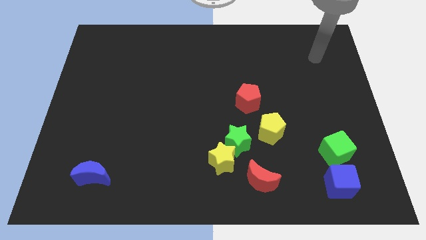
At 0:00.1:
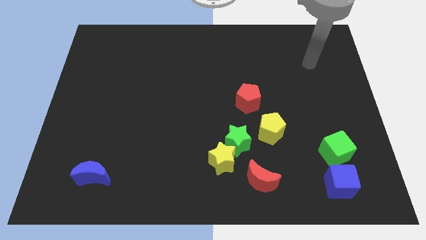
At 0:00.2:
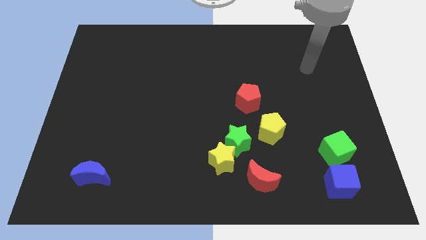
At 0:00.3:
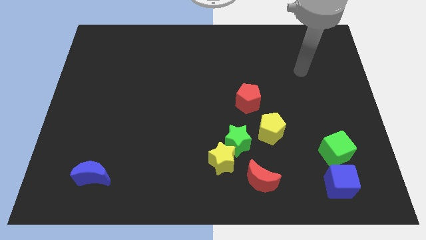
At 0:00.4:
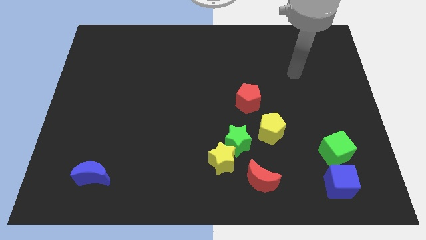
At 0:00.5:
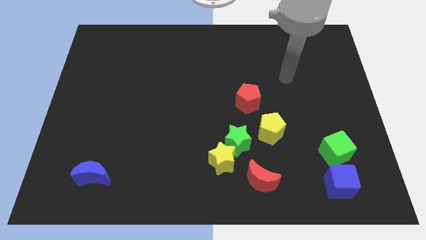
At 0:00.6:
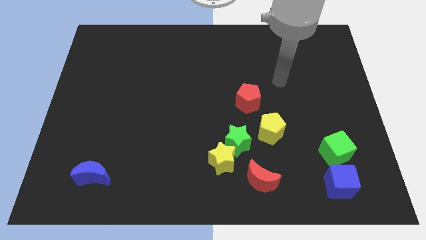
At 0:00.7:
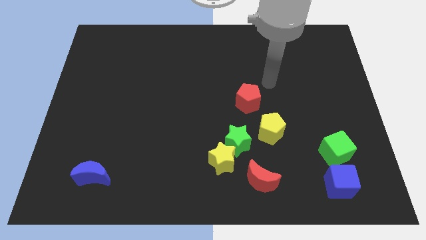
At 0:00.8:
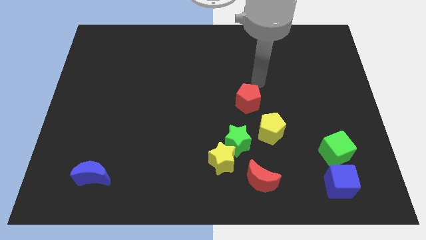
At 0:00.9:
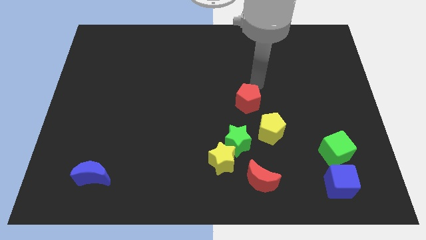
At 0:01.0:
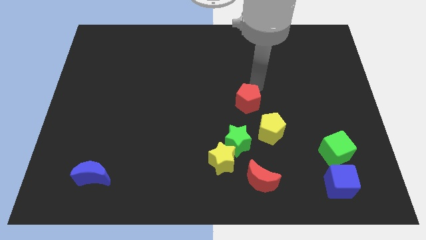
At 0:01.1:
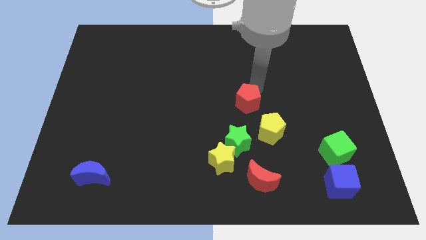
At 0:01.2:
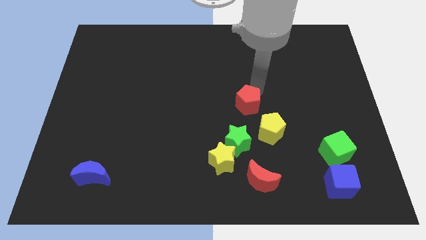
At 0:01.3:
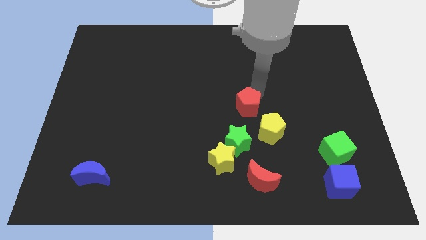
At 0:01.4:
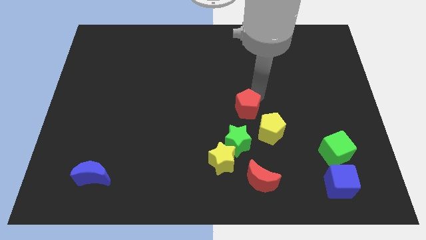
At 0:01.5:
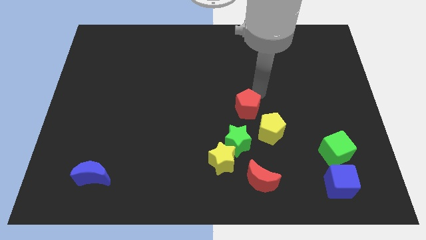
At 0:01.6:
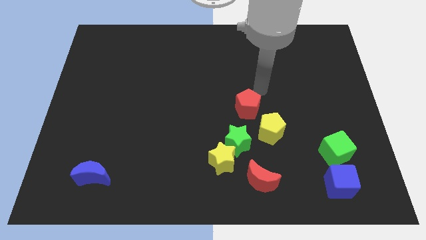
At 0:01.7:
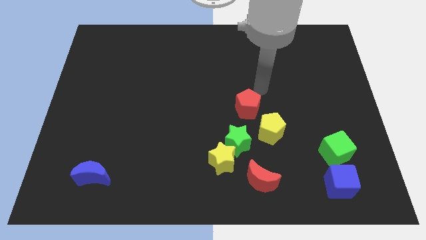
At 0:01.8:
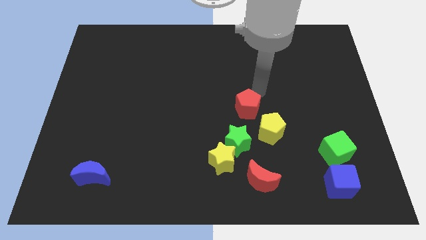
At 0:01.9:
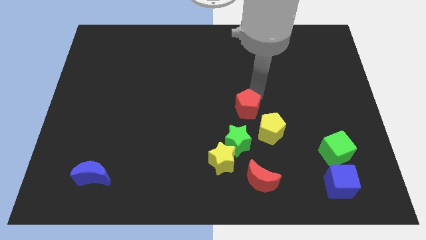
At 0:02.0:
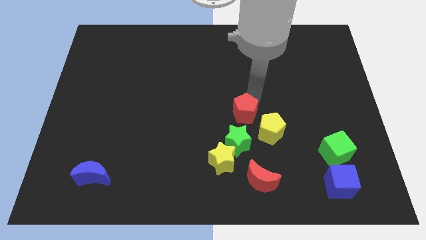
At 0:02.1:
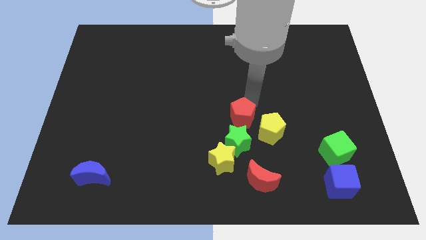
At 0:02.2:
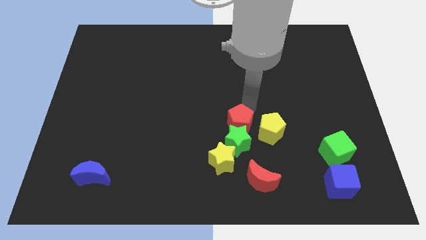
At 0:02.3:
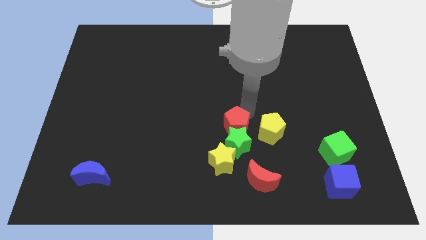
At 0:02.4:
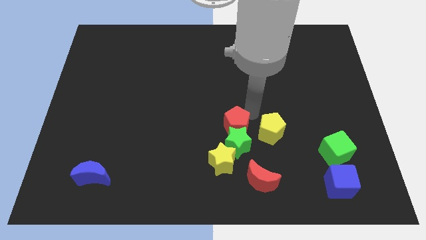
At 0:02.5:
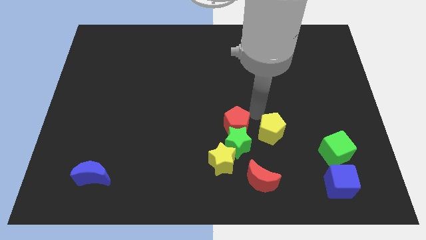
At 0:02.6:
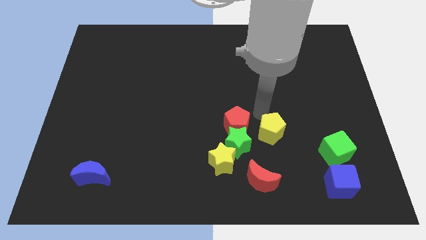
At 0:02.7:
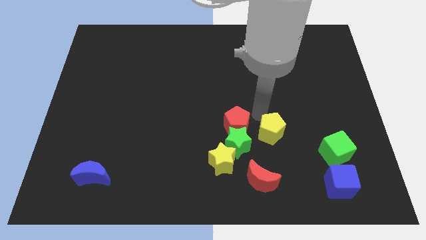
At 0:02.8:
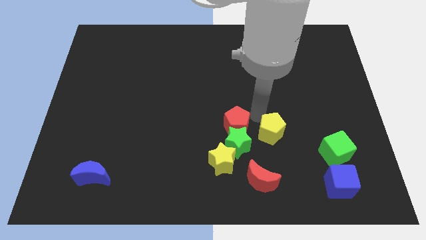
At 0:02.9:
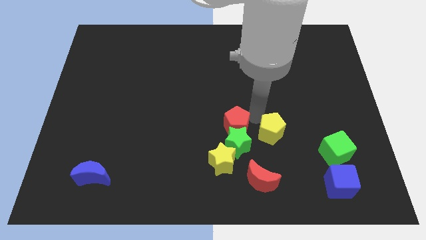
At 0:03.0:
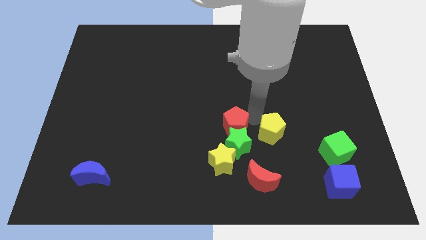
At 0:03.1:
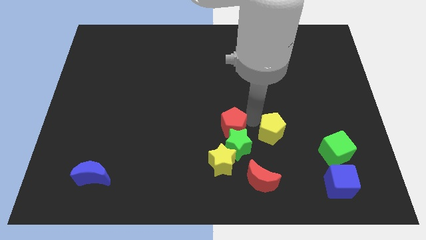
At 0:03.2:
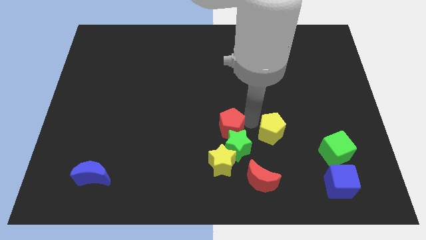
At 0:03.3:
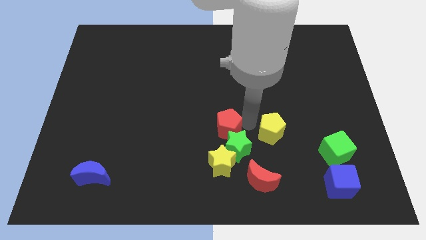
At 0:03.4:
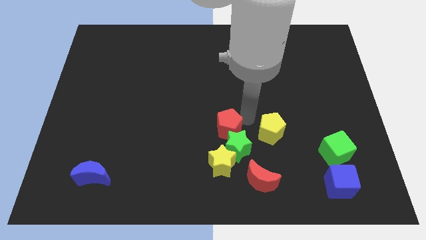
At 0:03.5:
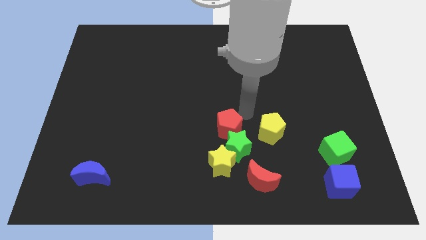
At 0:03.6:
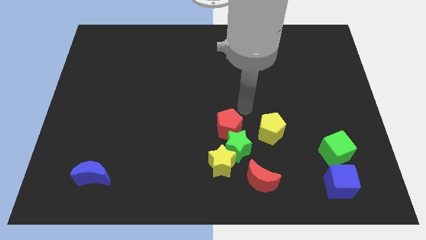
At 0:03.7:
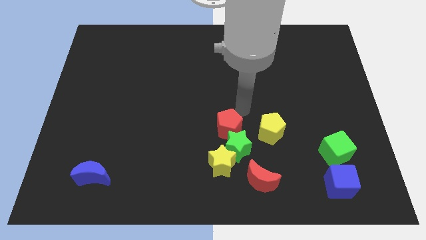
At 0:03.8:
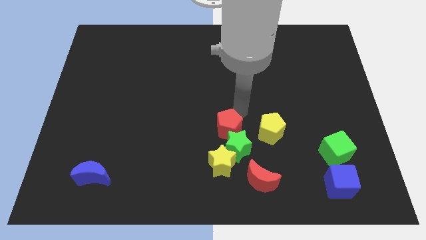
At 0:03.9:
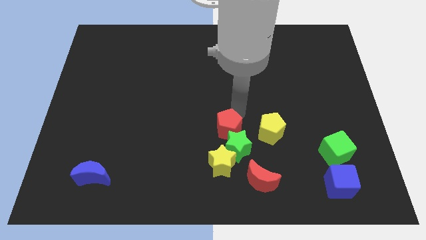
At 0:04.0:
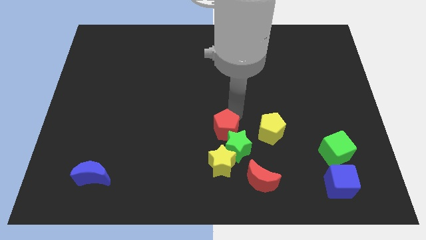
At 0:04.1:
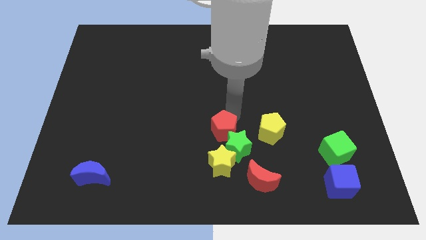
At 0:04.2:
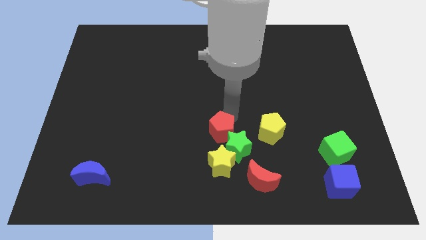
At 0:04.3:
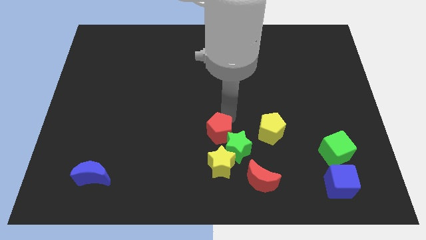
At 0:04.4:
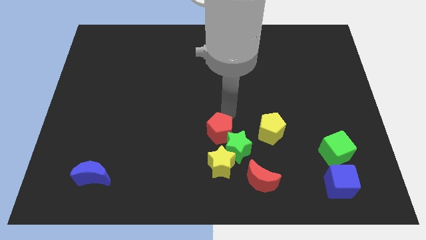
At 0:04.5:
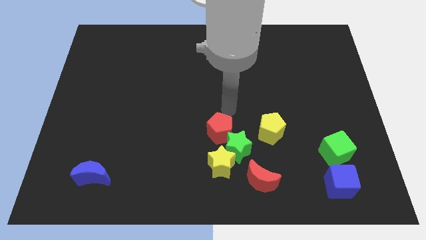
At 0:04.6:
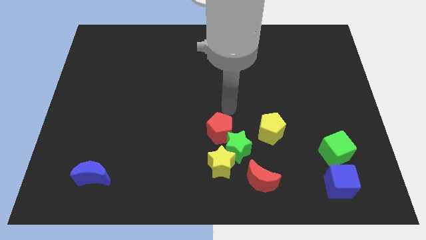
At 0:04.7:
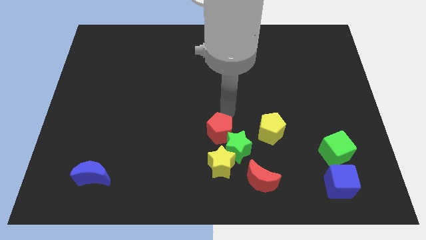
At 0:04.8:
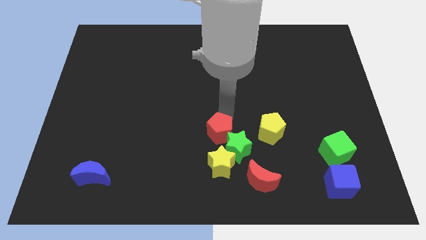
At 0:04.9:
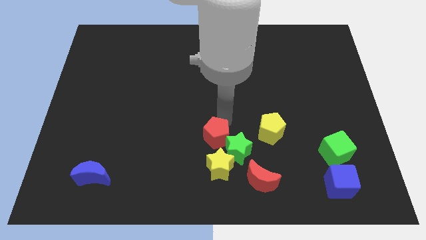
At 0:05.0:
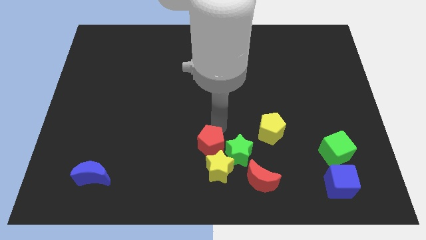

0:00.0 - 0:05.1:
slide the red pentagon close to the yellow star

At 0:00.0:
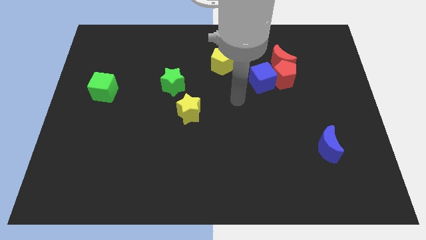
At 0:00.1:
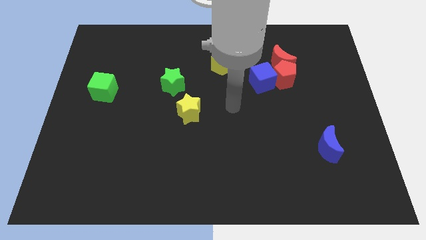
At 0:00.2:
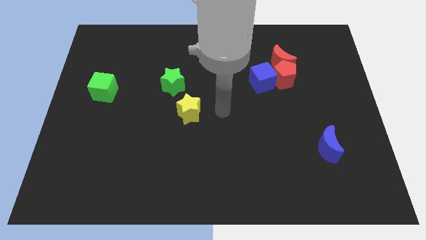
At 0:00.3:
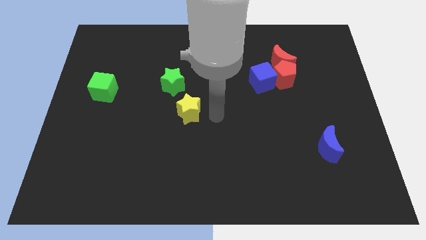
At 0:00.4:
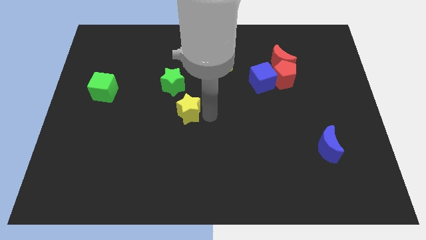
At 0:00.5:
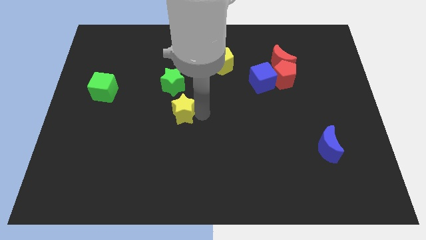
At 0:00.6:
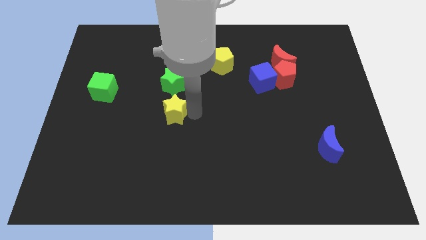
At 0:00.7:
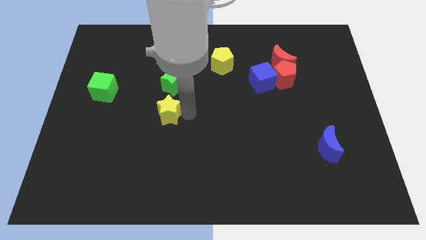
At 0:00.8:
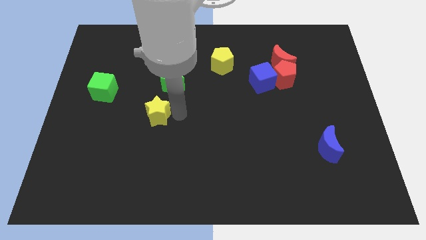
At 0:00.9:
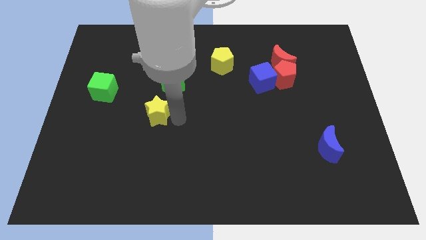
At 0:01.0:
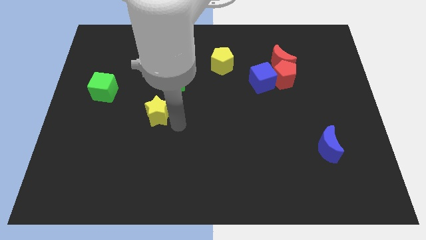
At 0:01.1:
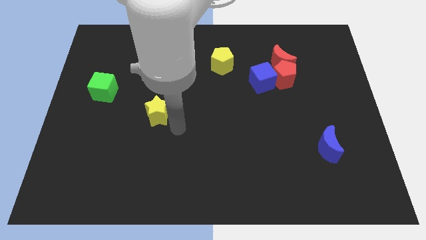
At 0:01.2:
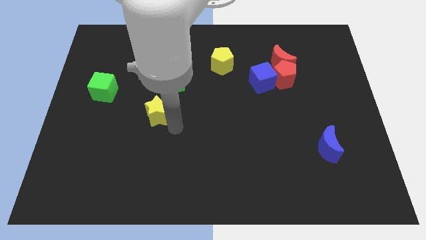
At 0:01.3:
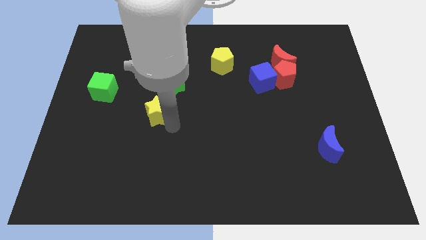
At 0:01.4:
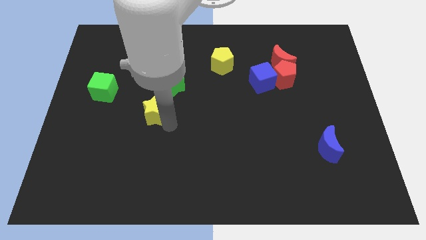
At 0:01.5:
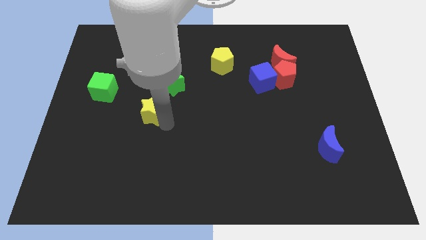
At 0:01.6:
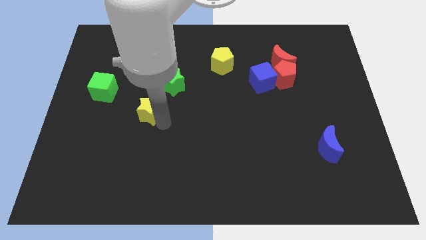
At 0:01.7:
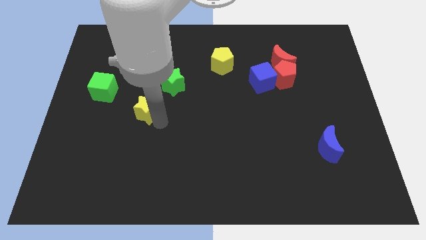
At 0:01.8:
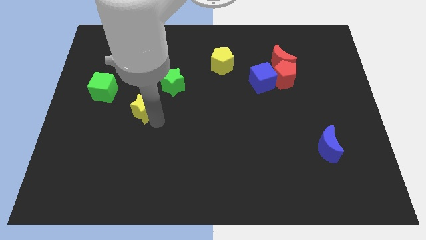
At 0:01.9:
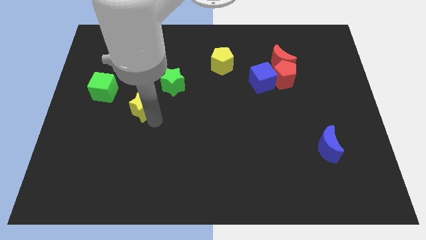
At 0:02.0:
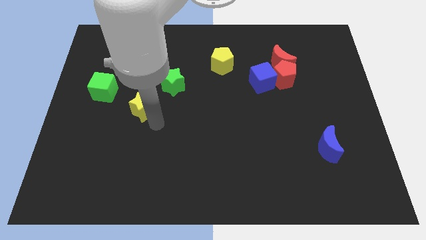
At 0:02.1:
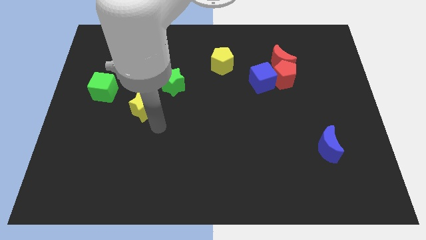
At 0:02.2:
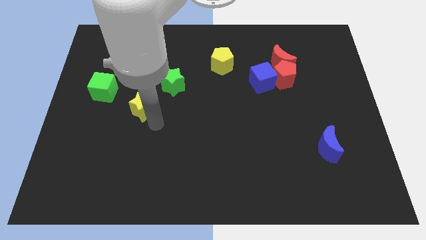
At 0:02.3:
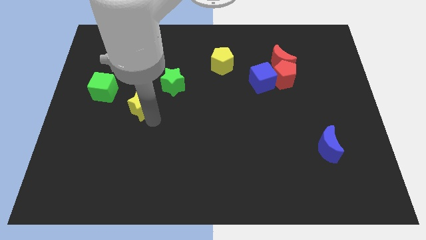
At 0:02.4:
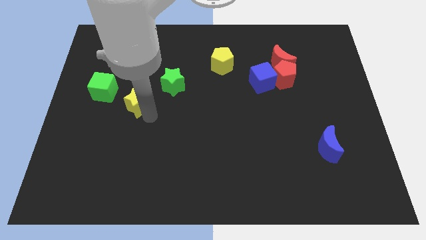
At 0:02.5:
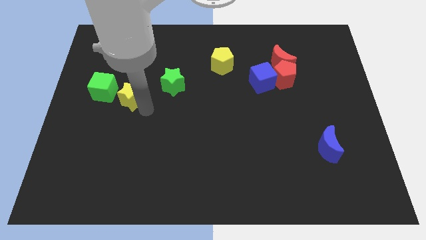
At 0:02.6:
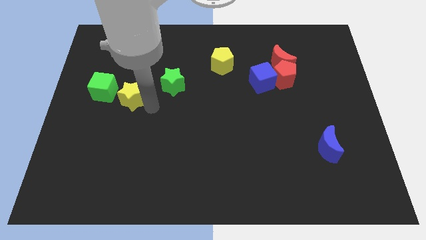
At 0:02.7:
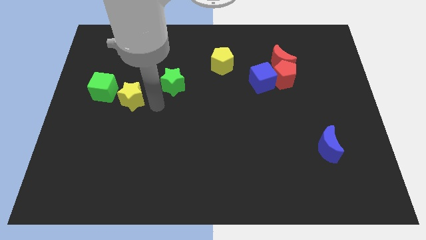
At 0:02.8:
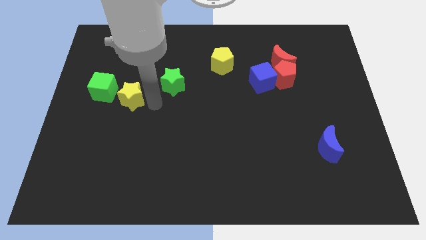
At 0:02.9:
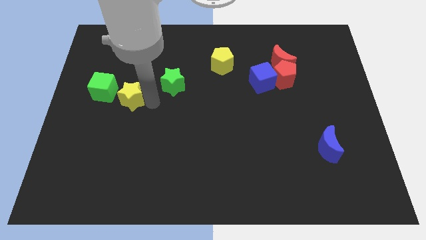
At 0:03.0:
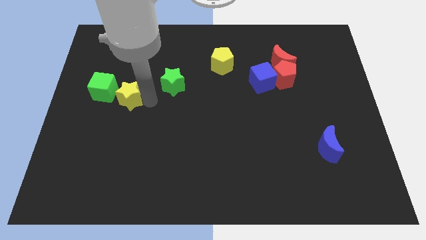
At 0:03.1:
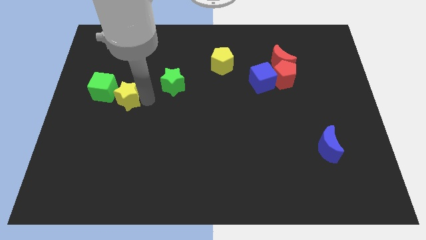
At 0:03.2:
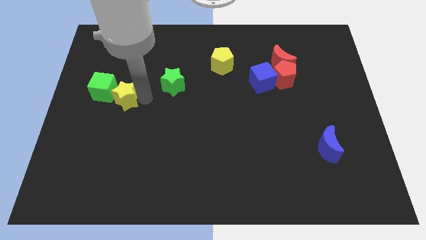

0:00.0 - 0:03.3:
slide the yellow star close to the green cube
